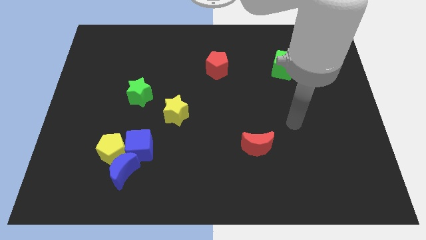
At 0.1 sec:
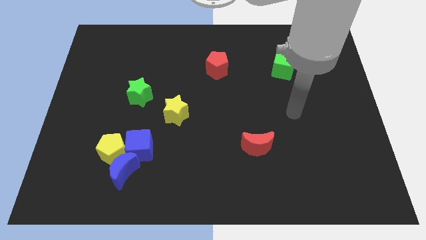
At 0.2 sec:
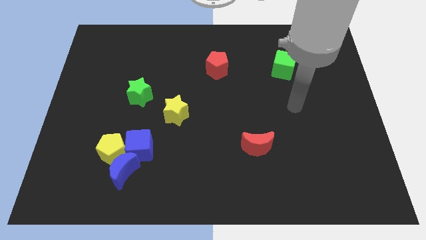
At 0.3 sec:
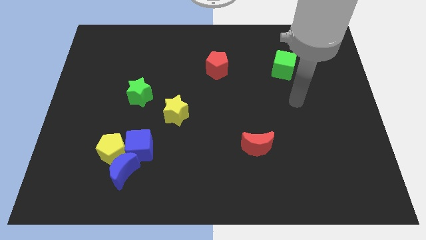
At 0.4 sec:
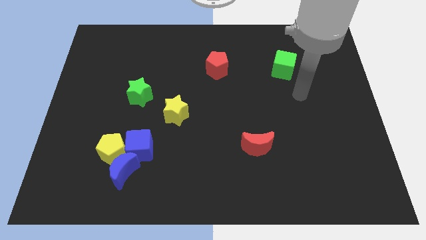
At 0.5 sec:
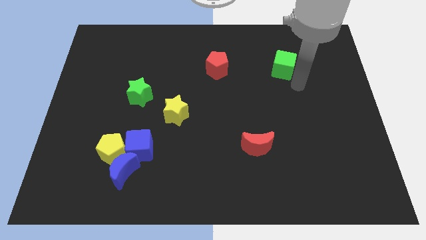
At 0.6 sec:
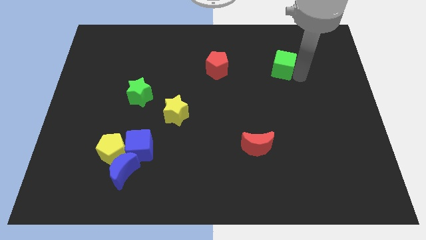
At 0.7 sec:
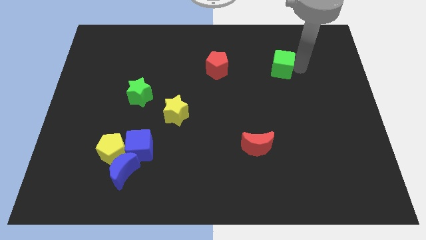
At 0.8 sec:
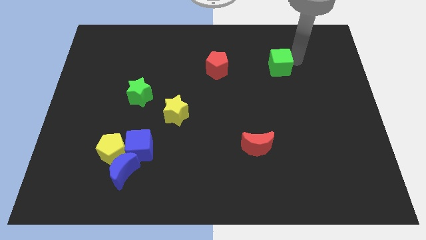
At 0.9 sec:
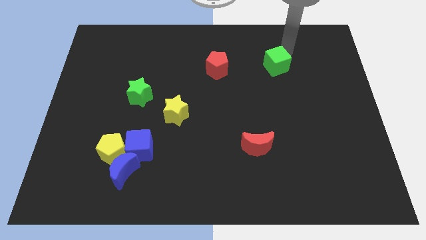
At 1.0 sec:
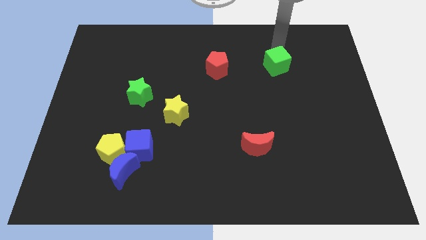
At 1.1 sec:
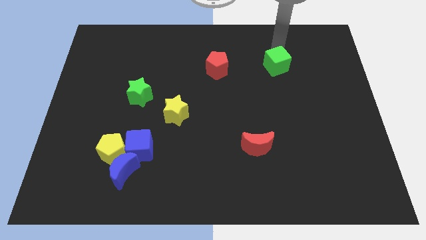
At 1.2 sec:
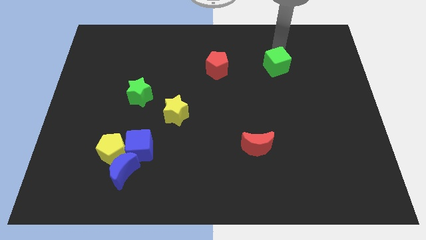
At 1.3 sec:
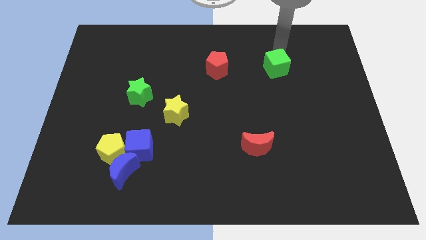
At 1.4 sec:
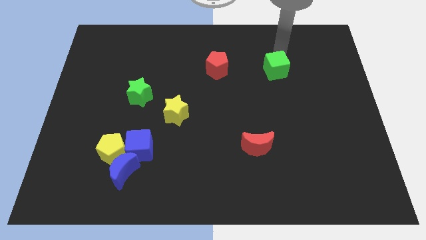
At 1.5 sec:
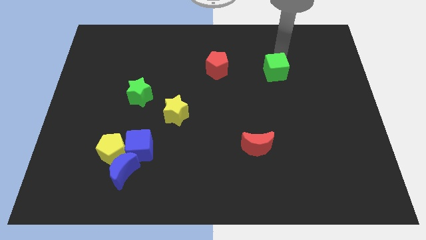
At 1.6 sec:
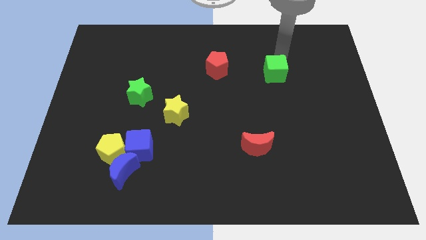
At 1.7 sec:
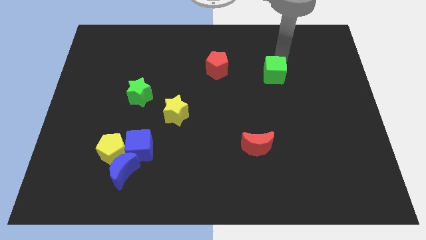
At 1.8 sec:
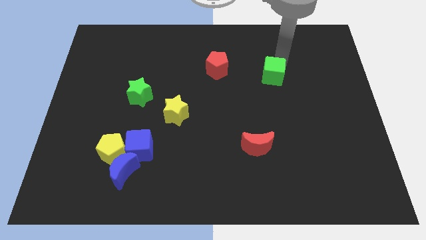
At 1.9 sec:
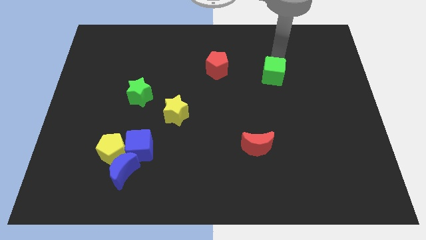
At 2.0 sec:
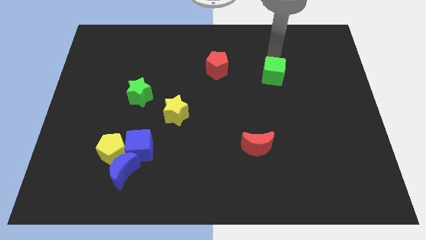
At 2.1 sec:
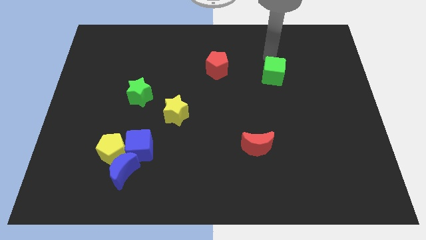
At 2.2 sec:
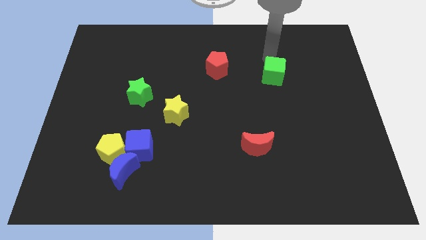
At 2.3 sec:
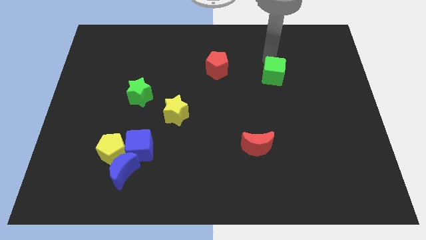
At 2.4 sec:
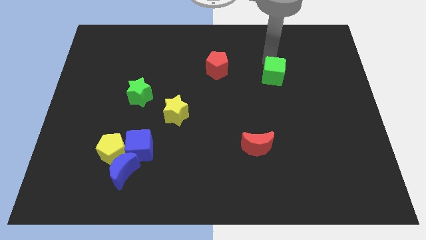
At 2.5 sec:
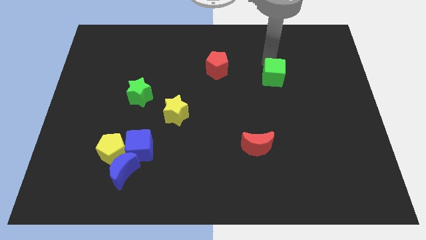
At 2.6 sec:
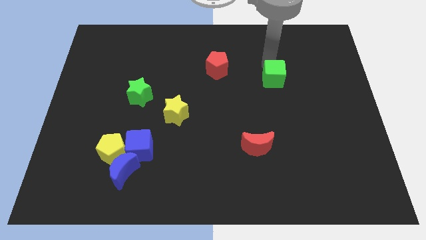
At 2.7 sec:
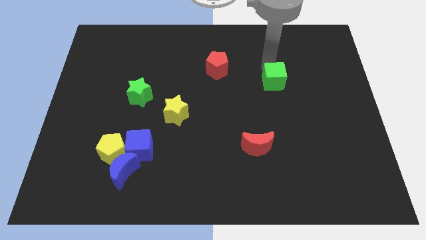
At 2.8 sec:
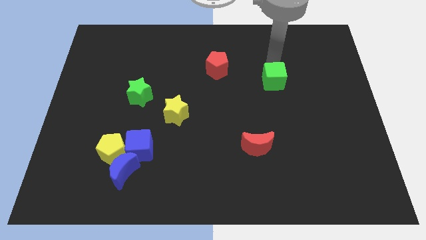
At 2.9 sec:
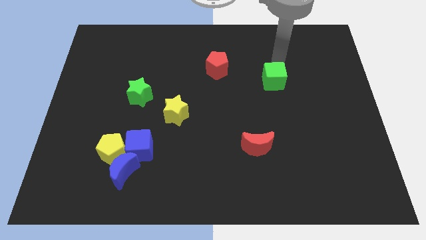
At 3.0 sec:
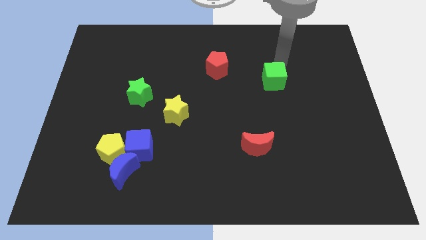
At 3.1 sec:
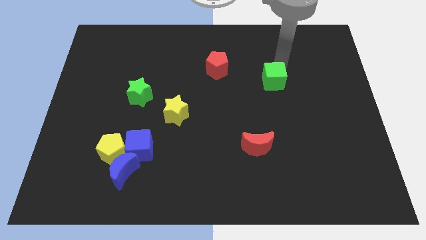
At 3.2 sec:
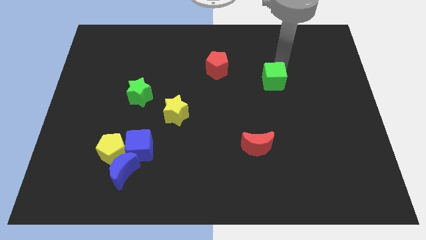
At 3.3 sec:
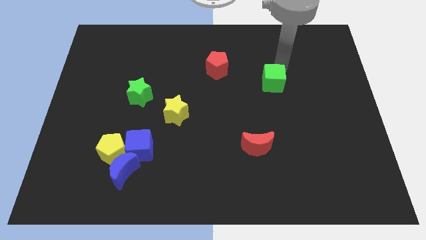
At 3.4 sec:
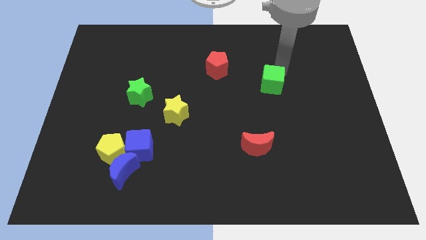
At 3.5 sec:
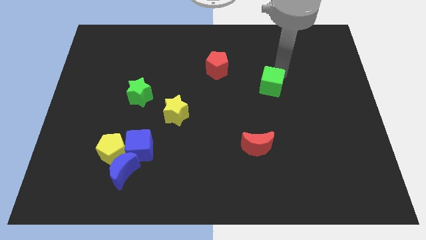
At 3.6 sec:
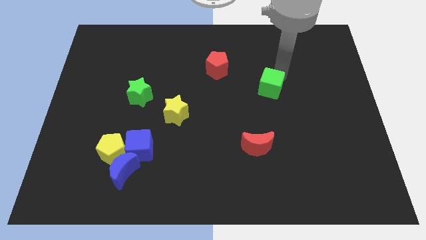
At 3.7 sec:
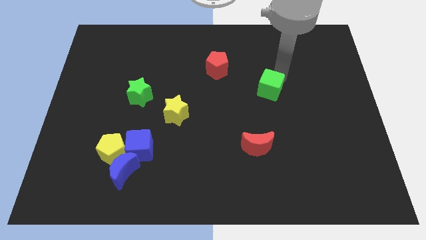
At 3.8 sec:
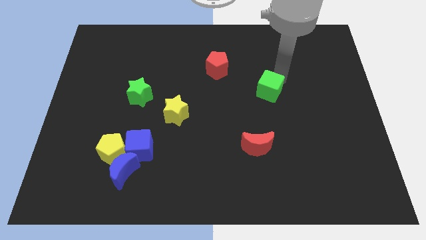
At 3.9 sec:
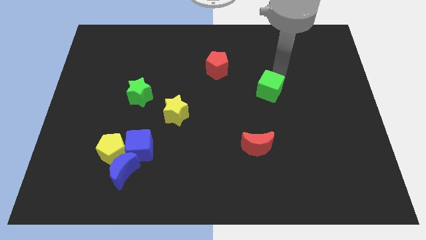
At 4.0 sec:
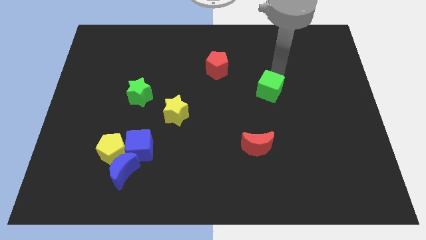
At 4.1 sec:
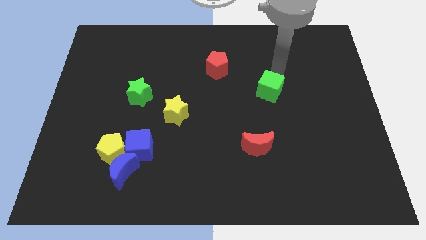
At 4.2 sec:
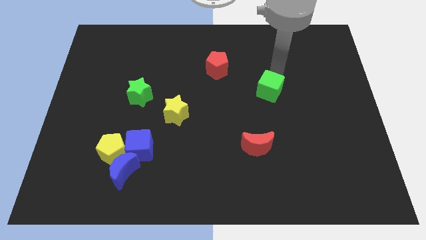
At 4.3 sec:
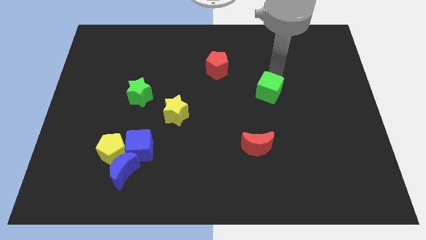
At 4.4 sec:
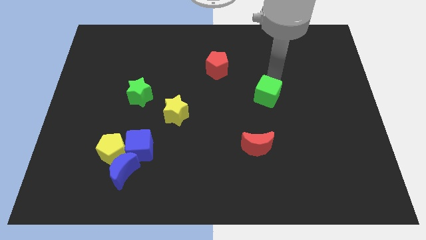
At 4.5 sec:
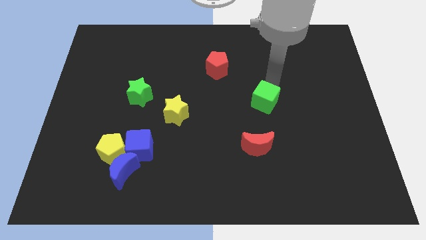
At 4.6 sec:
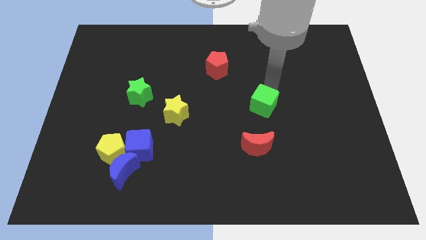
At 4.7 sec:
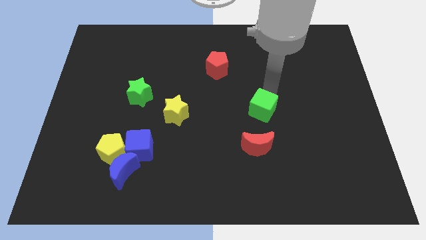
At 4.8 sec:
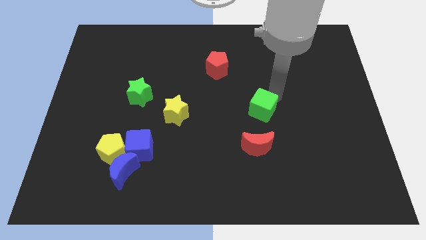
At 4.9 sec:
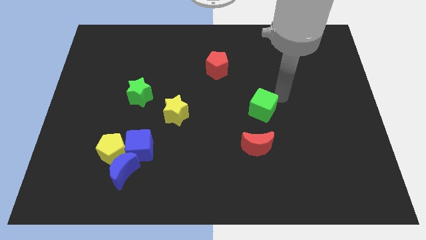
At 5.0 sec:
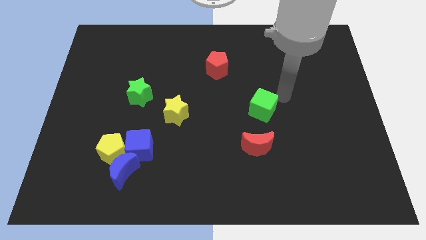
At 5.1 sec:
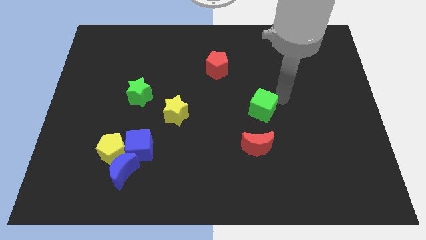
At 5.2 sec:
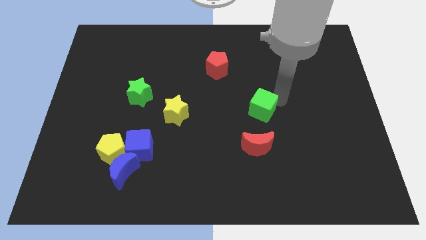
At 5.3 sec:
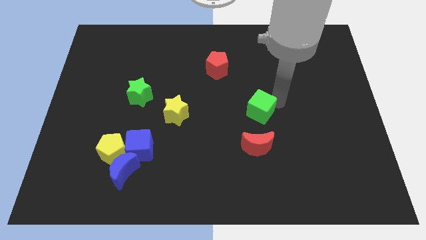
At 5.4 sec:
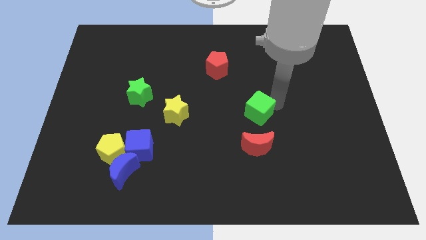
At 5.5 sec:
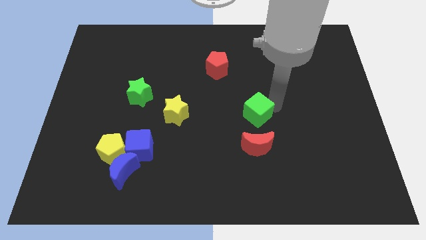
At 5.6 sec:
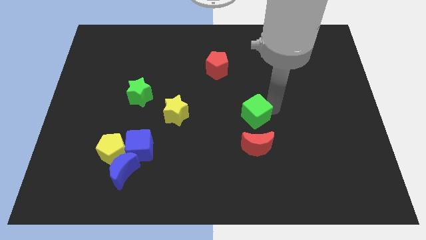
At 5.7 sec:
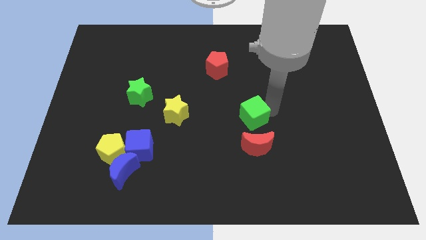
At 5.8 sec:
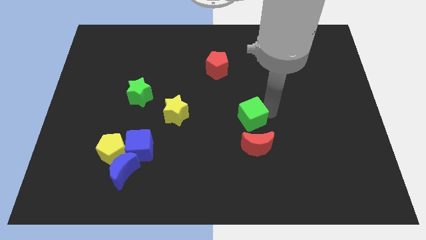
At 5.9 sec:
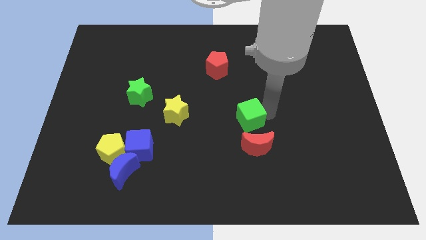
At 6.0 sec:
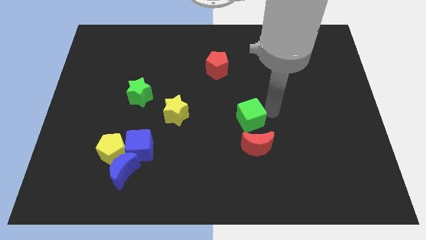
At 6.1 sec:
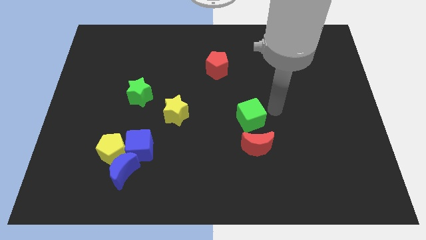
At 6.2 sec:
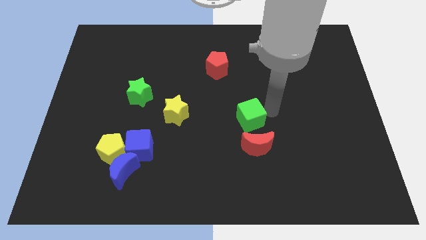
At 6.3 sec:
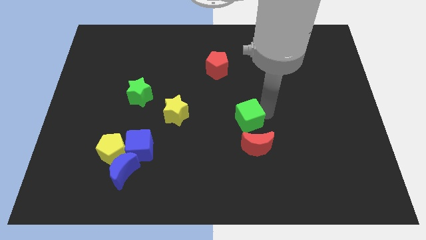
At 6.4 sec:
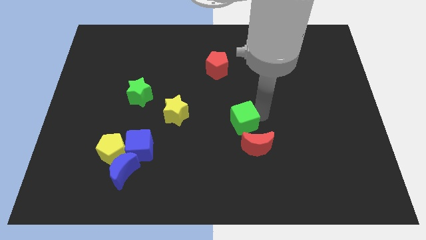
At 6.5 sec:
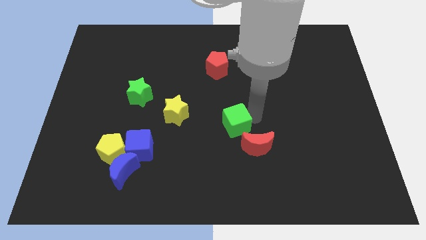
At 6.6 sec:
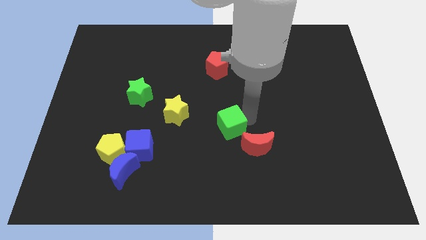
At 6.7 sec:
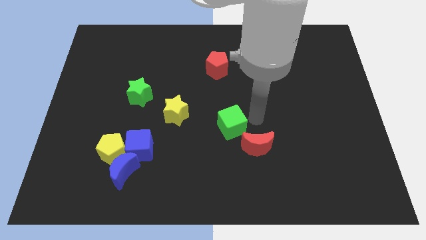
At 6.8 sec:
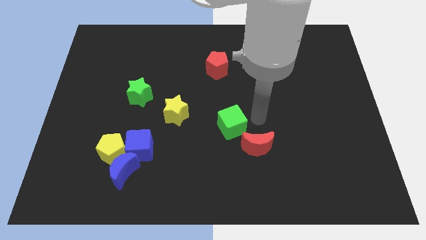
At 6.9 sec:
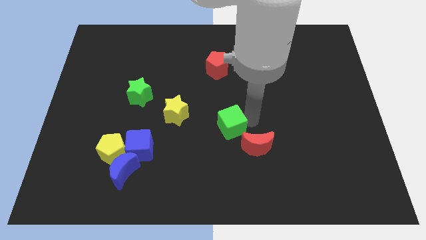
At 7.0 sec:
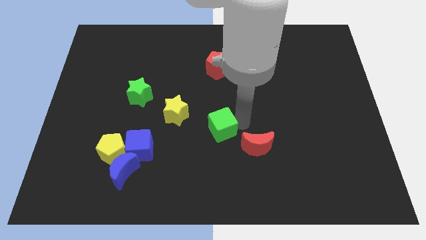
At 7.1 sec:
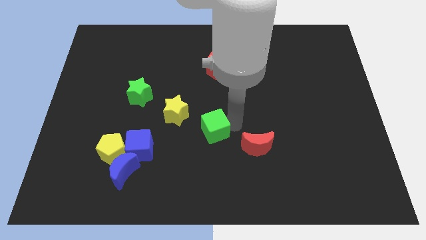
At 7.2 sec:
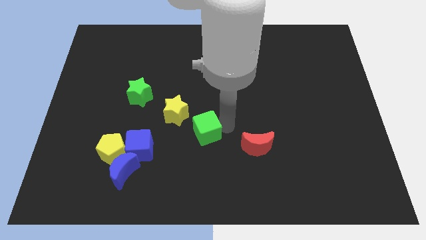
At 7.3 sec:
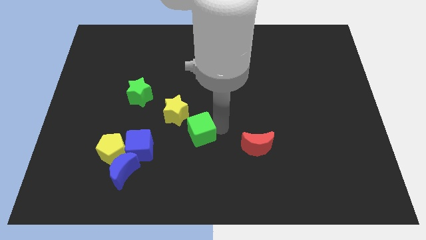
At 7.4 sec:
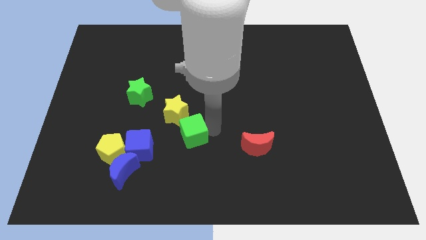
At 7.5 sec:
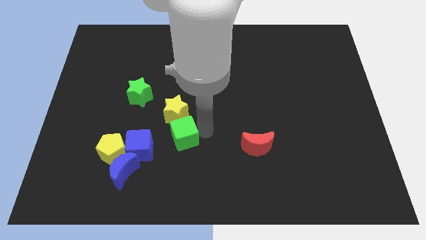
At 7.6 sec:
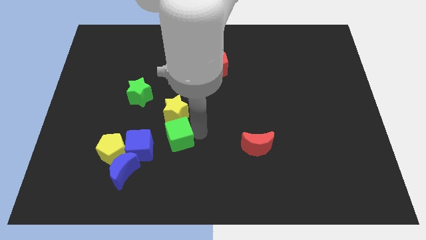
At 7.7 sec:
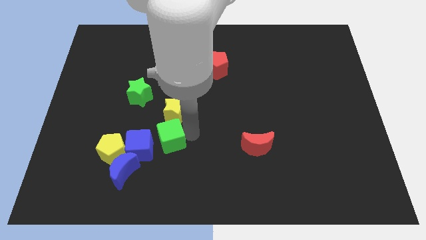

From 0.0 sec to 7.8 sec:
put the green cube to the top right of the blue moon
